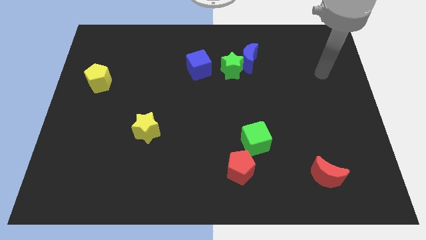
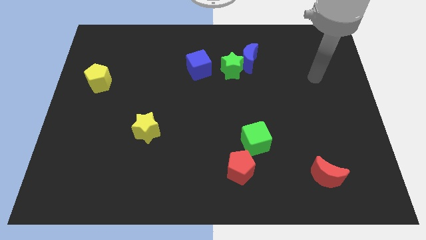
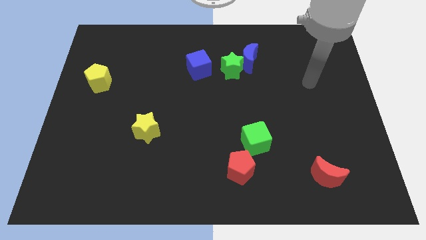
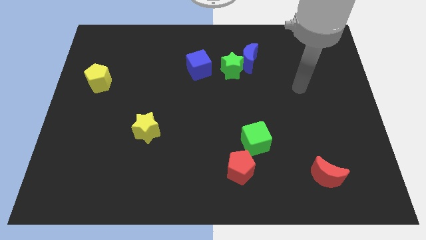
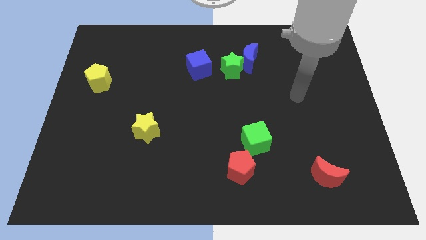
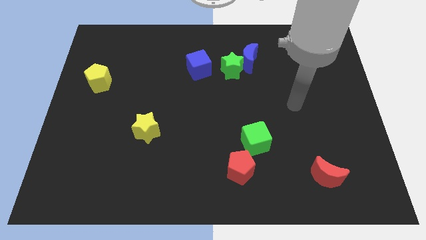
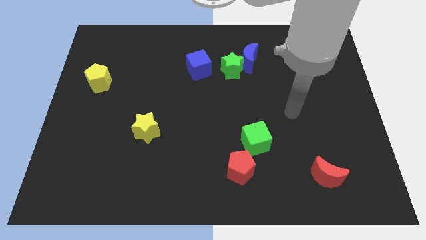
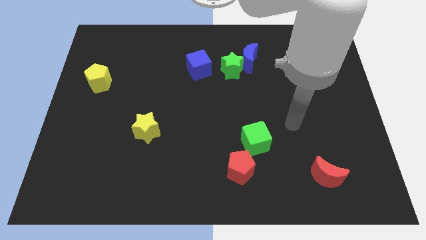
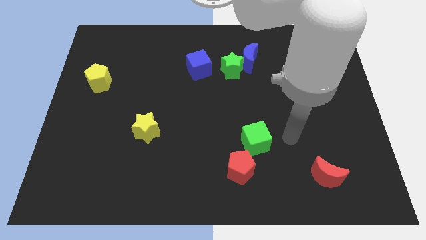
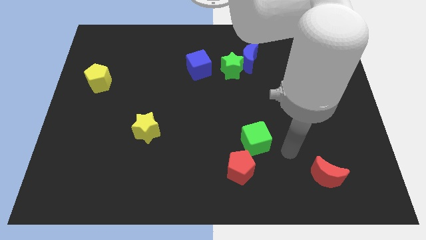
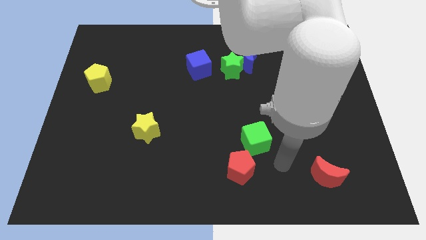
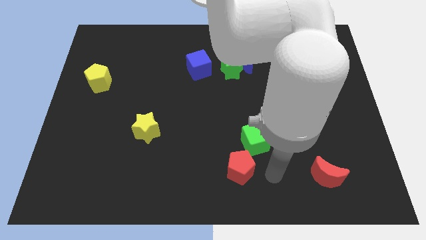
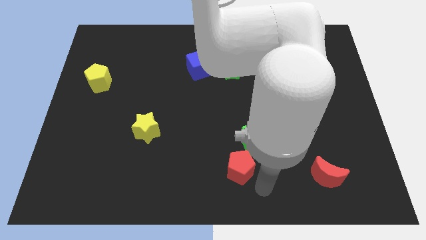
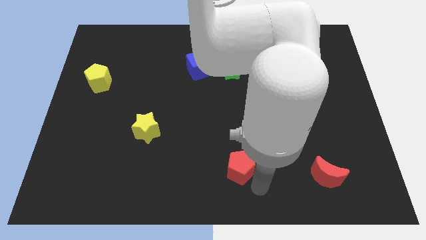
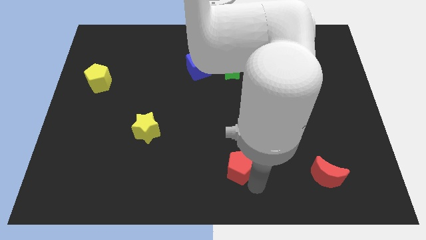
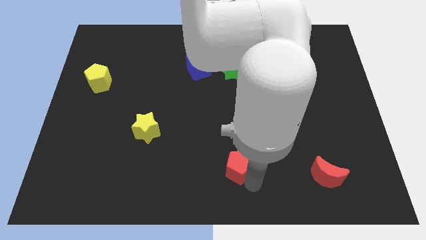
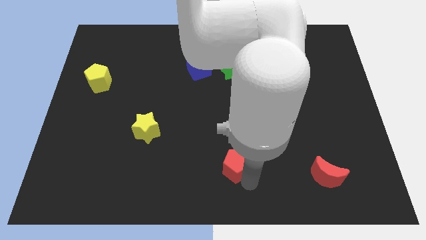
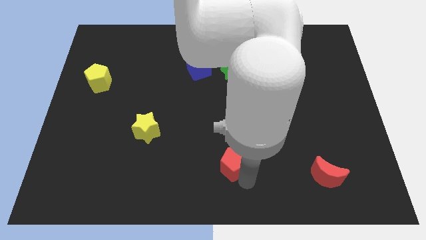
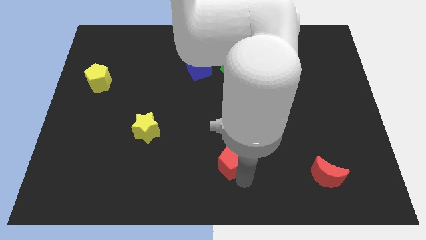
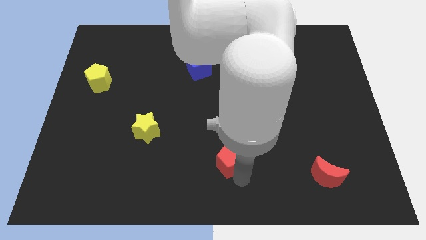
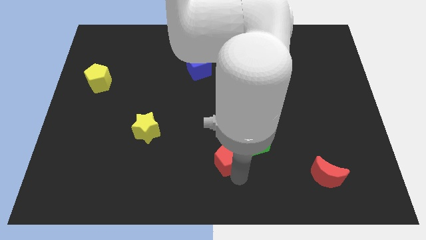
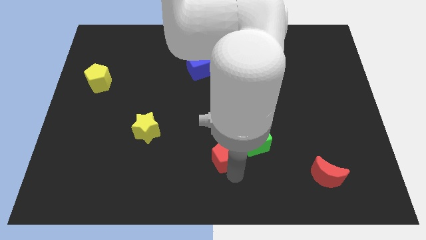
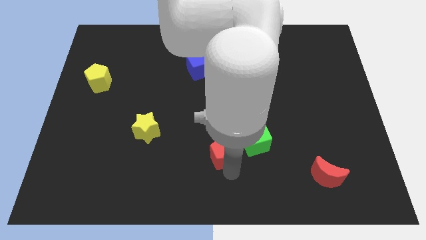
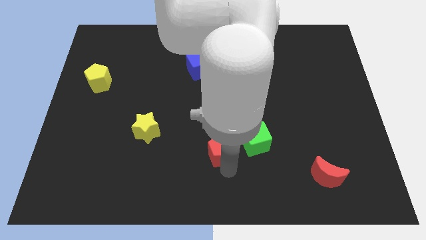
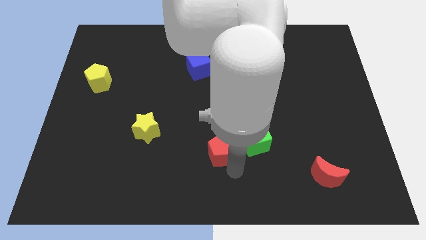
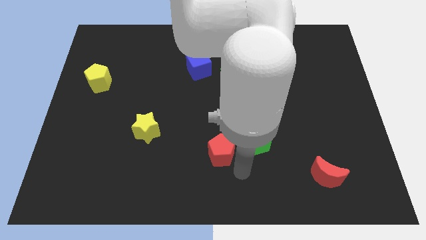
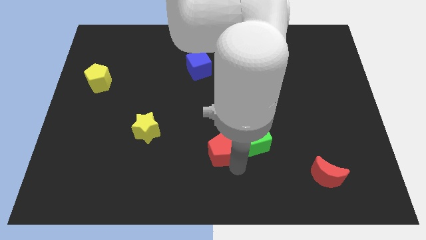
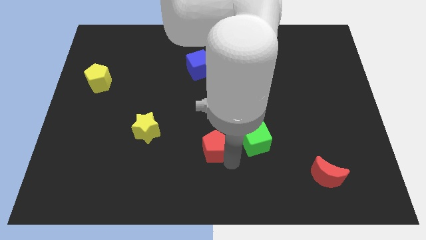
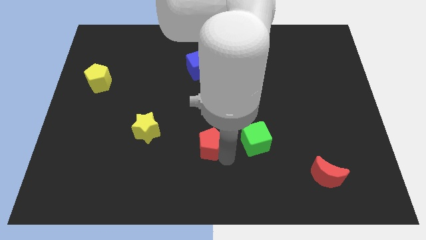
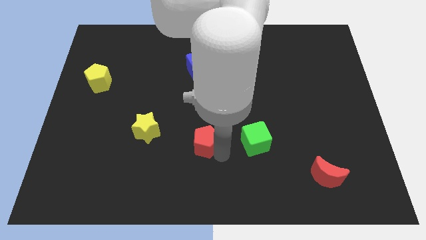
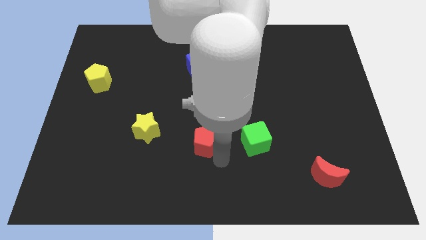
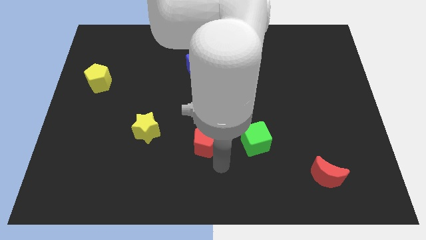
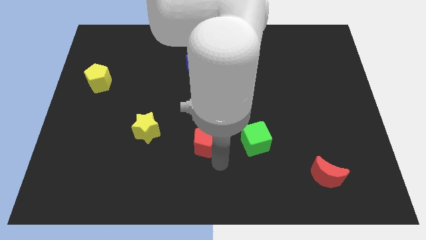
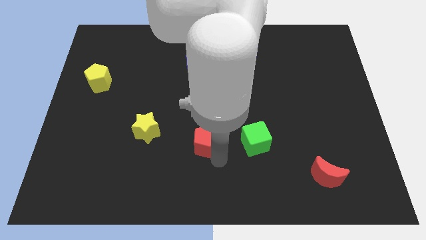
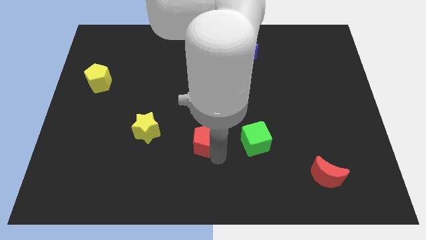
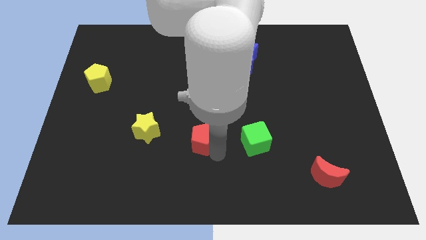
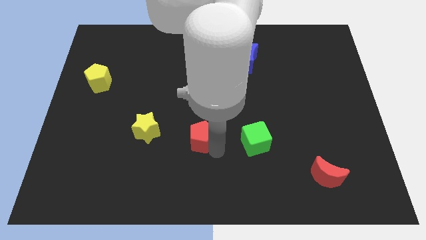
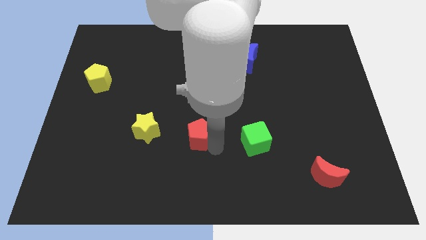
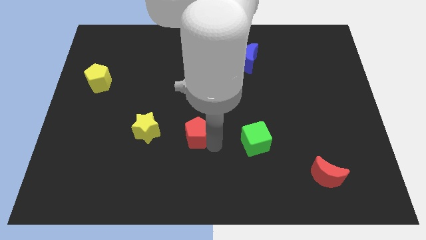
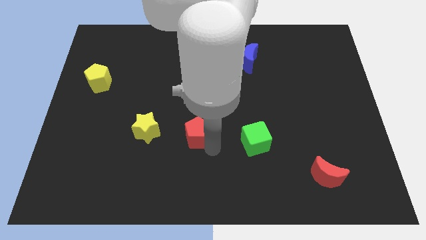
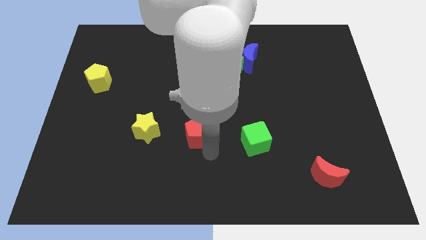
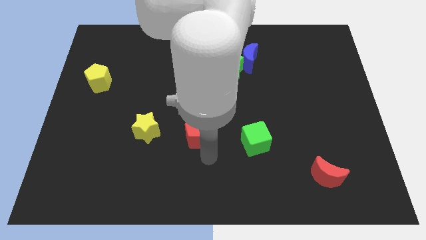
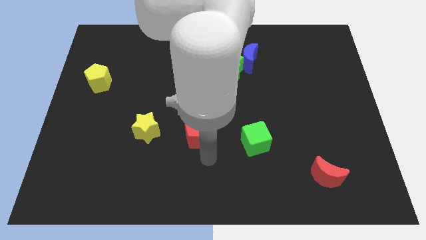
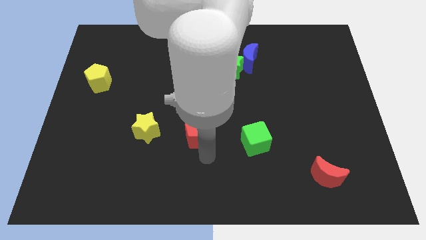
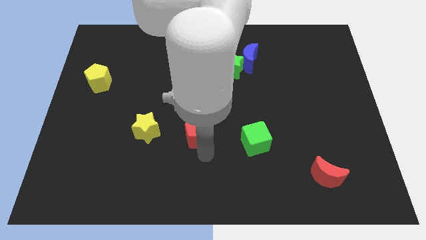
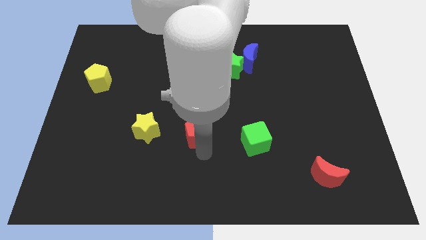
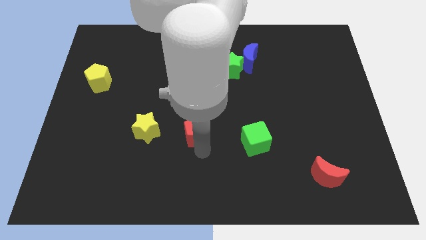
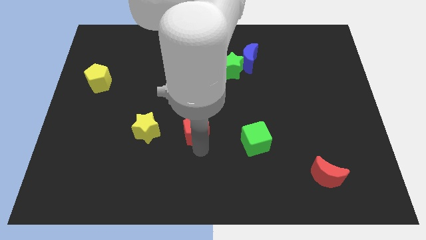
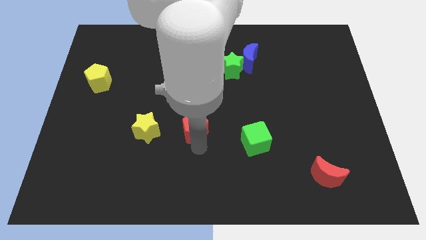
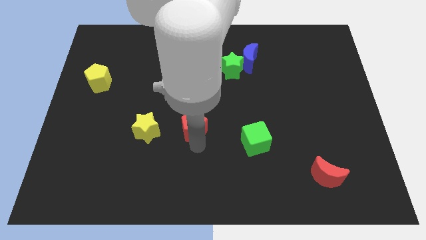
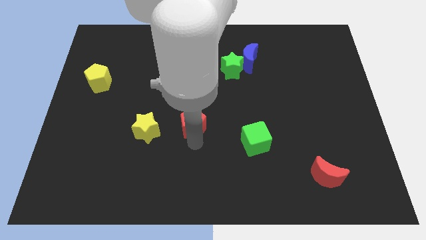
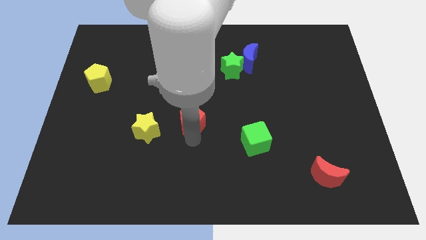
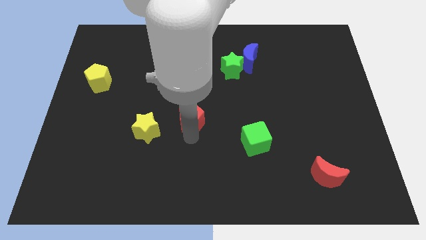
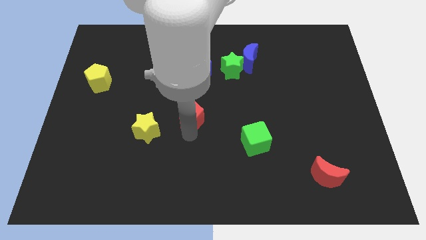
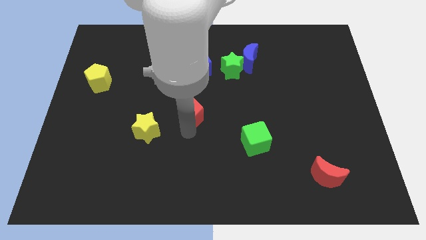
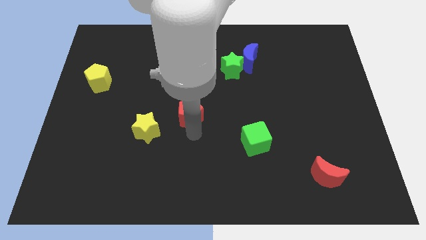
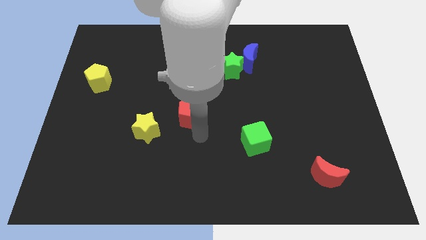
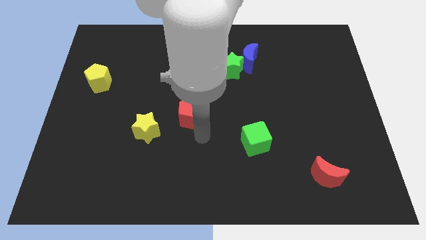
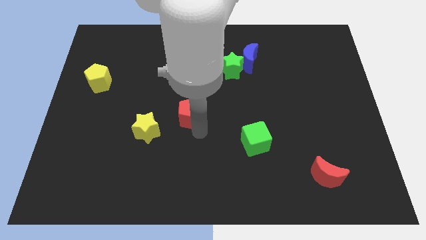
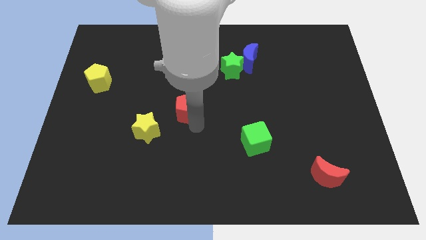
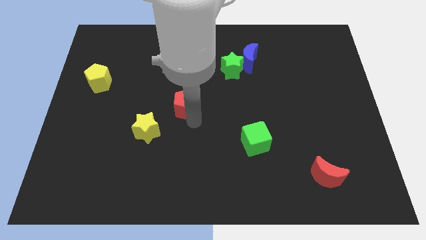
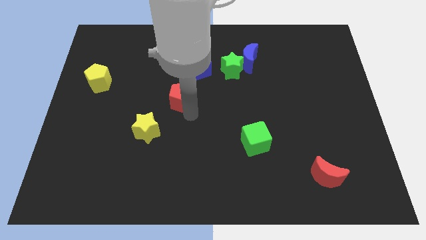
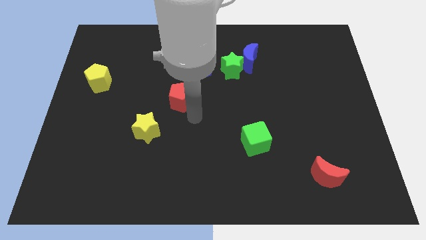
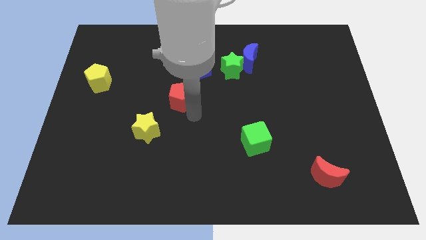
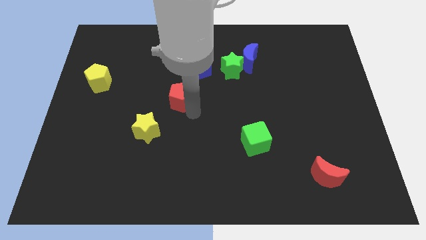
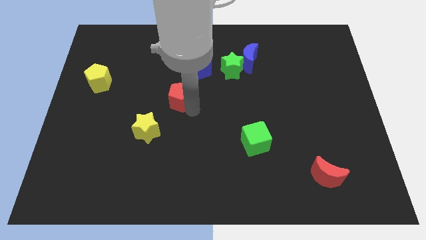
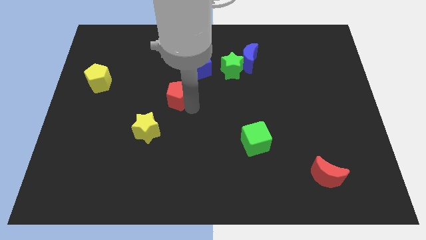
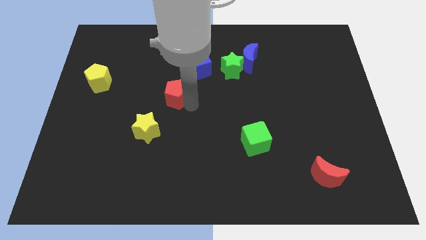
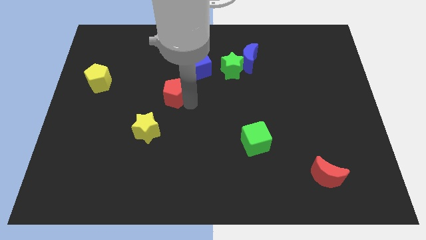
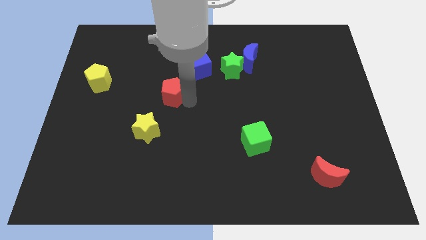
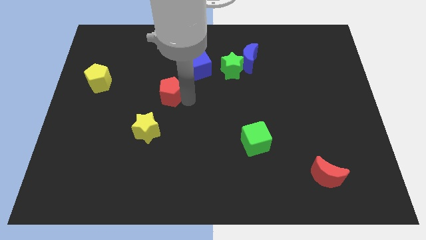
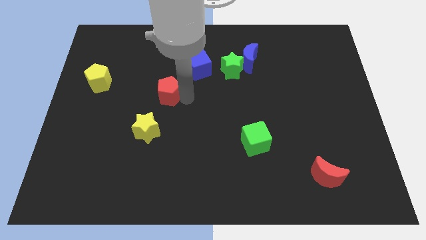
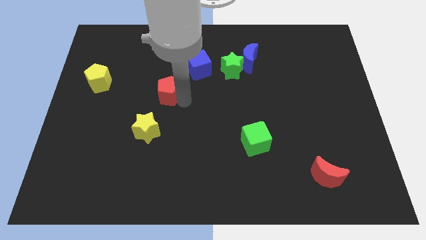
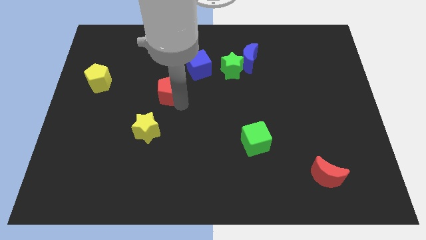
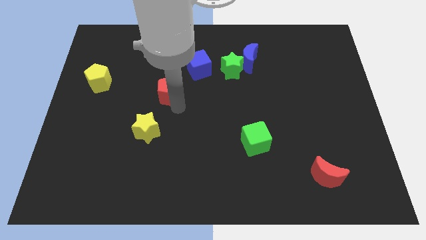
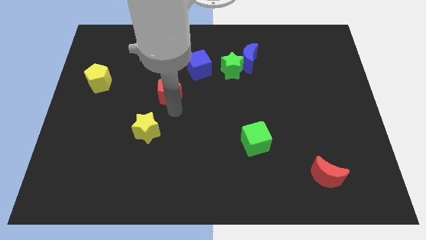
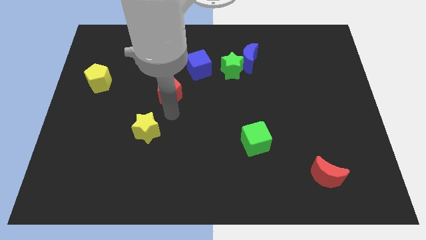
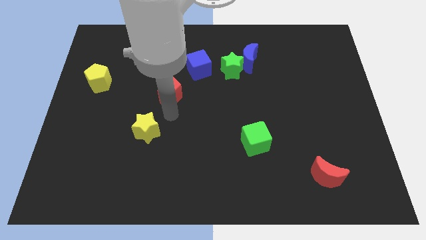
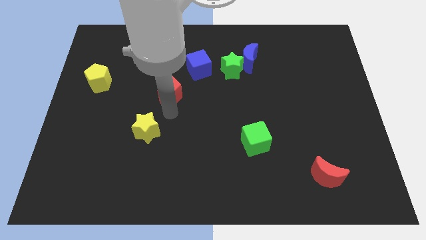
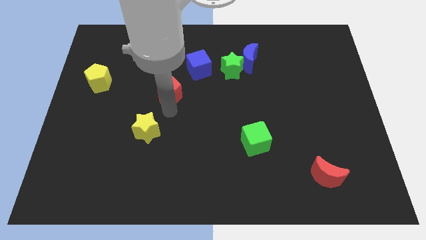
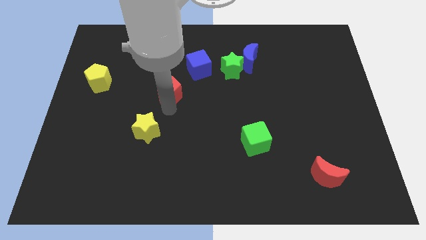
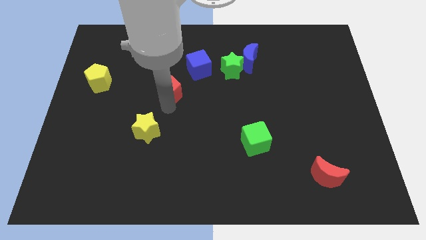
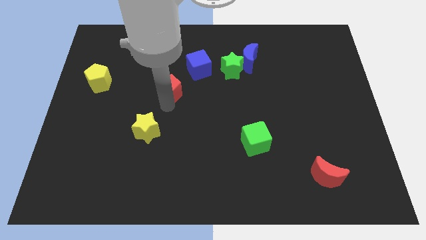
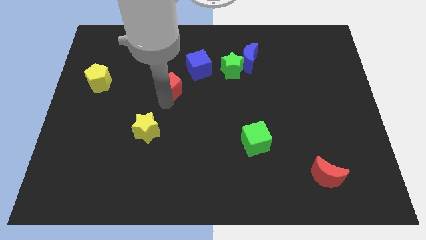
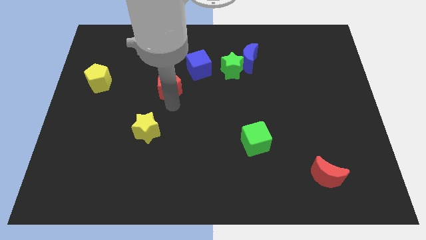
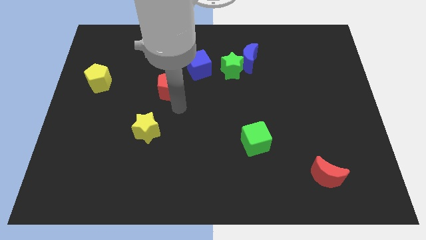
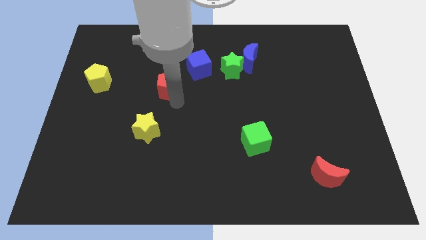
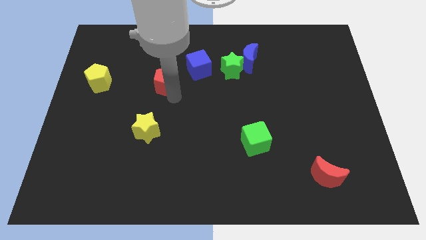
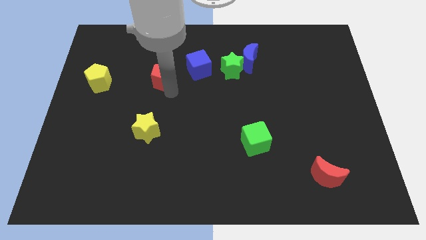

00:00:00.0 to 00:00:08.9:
push the red pentagon just left of the blue cube
